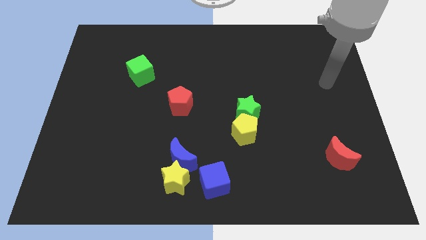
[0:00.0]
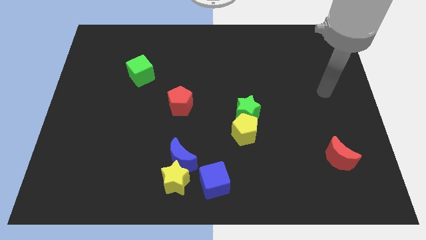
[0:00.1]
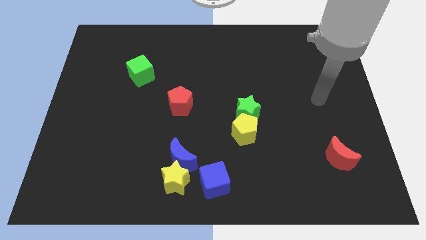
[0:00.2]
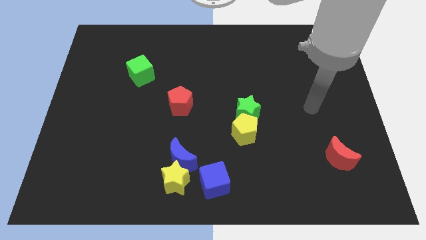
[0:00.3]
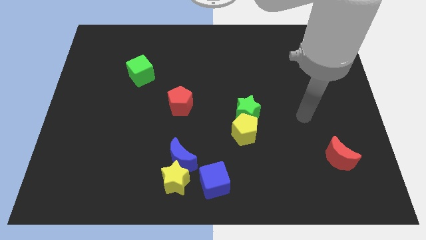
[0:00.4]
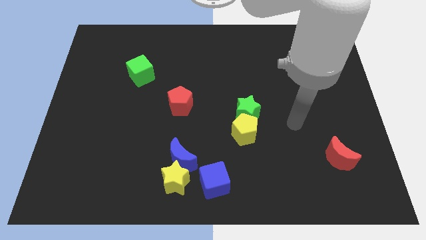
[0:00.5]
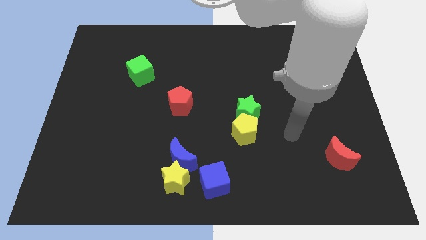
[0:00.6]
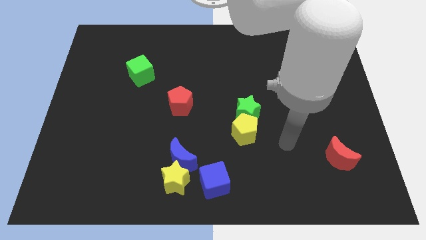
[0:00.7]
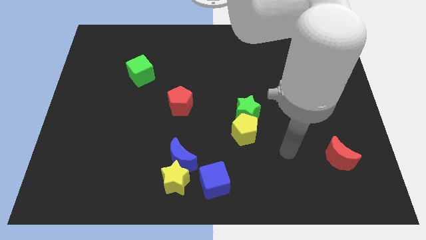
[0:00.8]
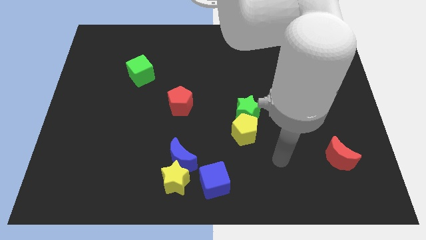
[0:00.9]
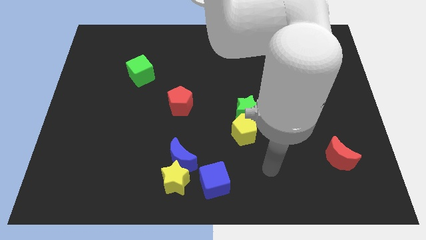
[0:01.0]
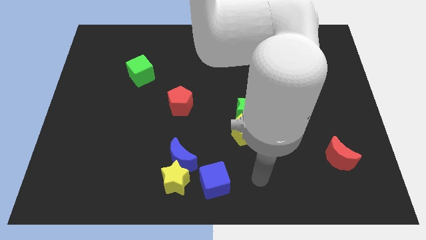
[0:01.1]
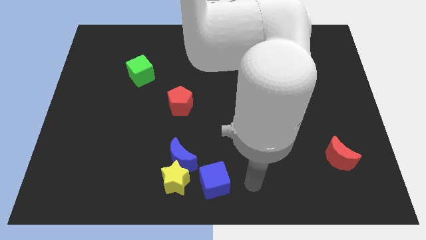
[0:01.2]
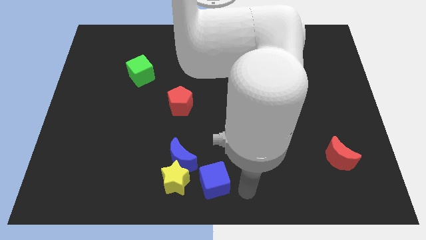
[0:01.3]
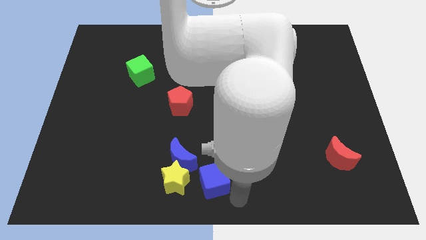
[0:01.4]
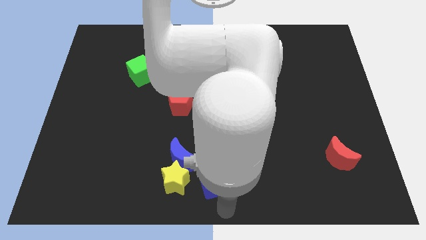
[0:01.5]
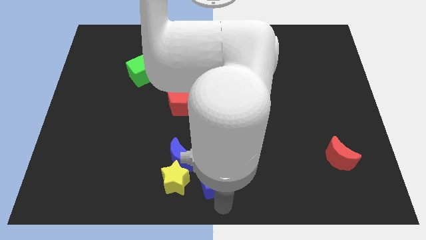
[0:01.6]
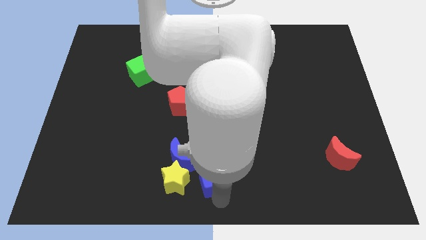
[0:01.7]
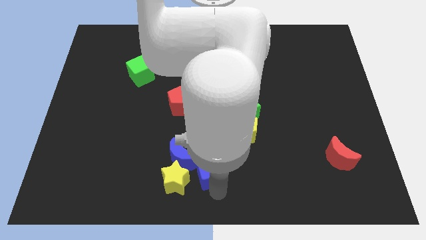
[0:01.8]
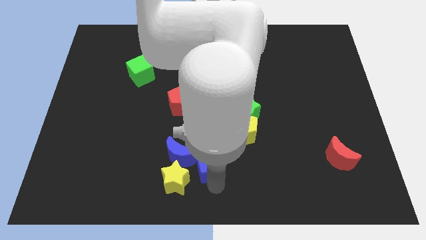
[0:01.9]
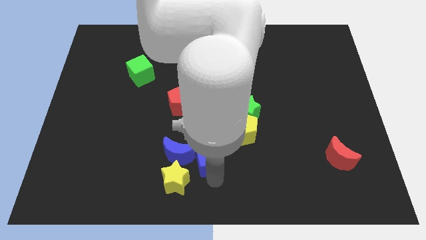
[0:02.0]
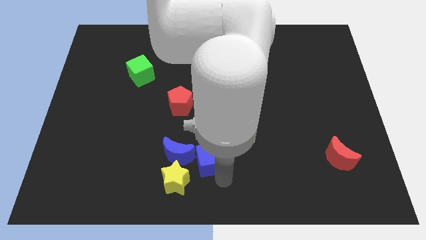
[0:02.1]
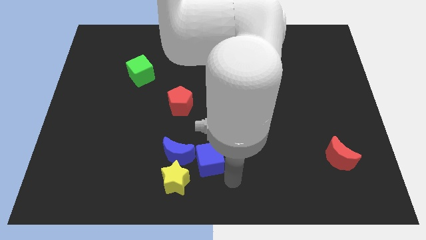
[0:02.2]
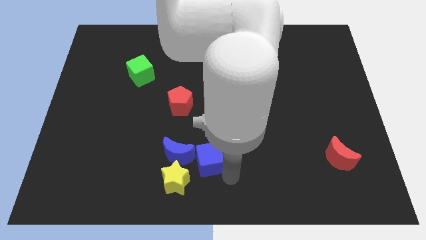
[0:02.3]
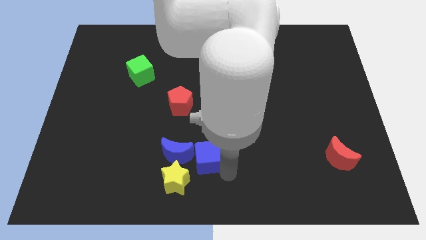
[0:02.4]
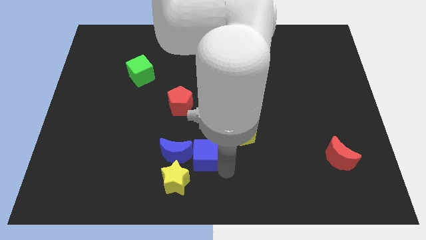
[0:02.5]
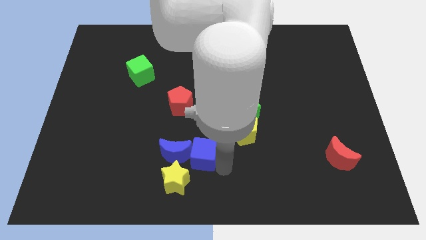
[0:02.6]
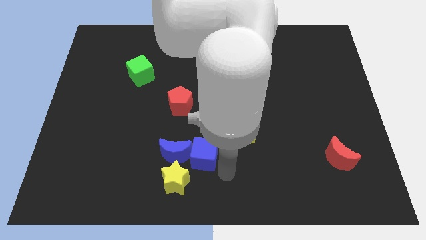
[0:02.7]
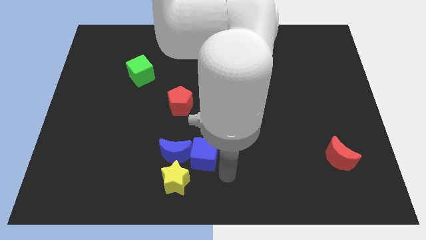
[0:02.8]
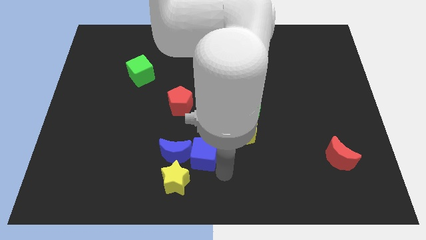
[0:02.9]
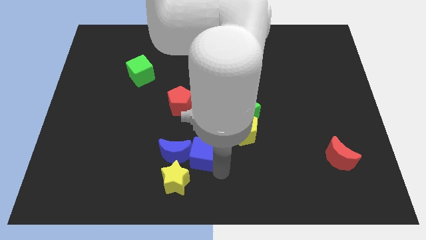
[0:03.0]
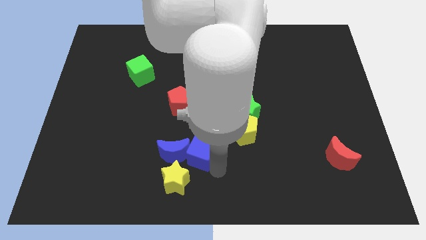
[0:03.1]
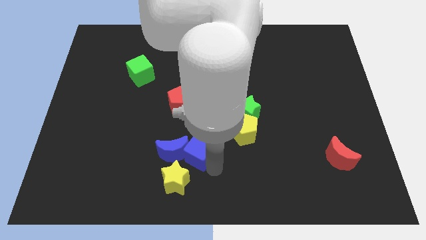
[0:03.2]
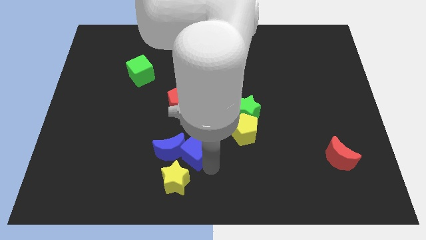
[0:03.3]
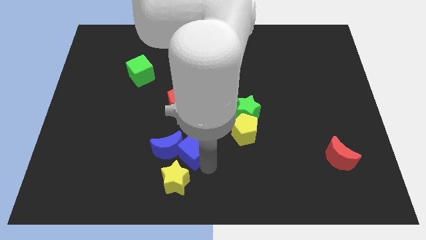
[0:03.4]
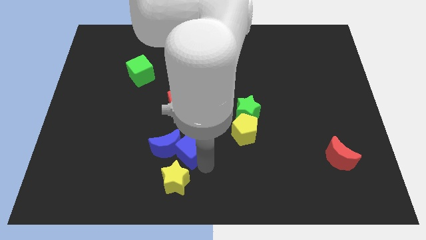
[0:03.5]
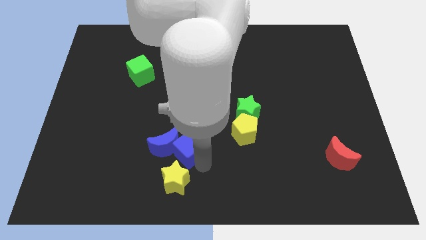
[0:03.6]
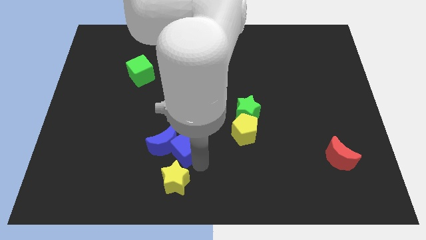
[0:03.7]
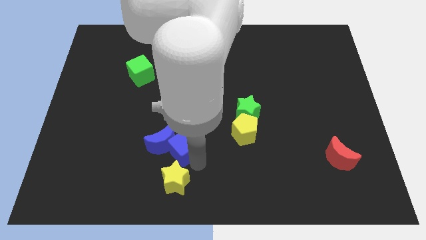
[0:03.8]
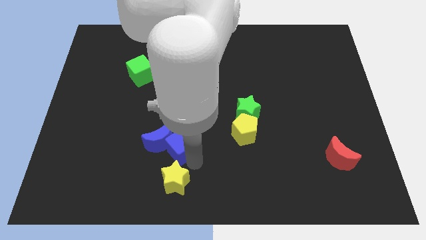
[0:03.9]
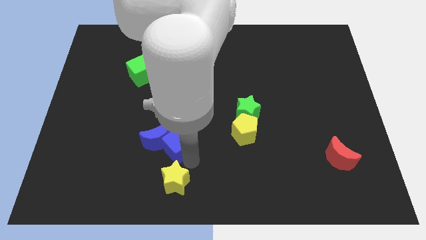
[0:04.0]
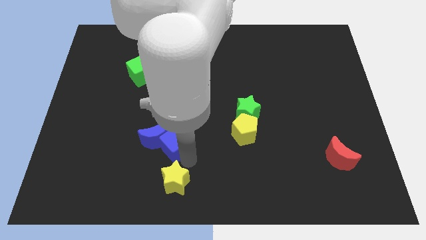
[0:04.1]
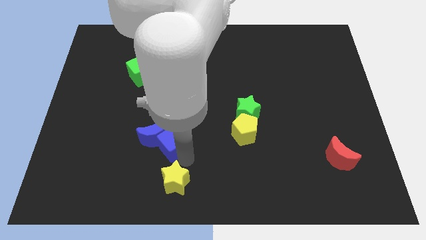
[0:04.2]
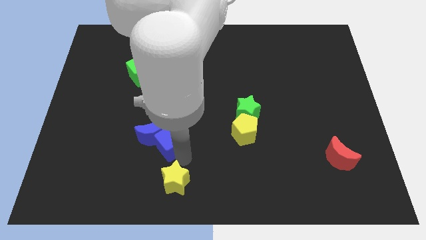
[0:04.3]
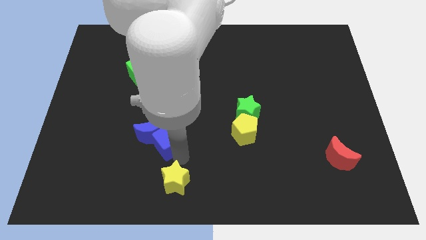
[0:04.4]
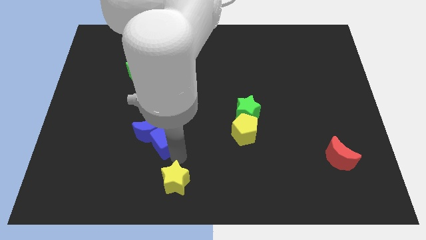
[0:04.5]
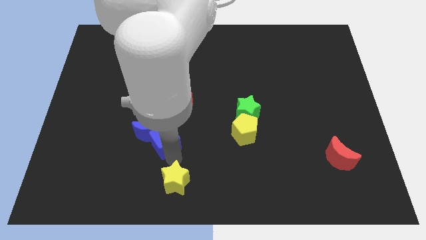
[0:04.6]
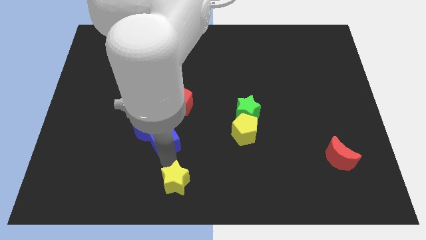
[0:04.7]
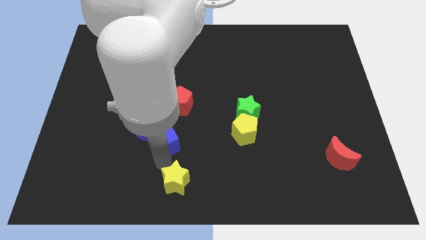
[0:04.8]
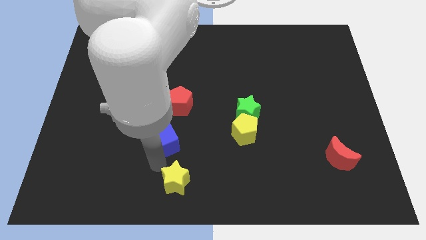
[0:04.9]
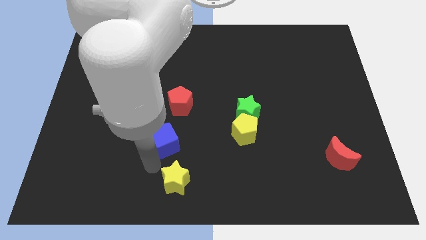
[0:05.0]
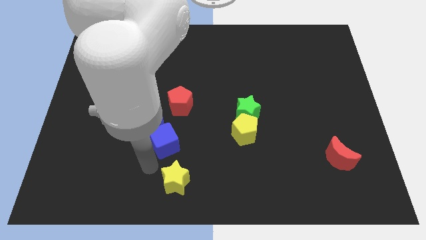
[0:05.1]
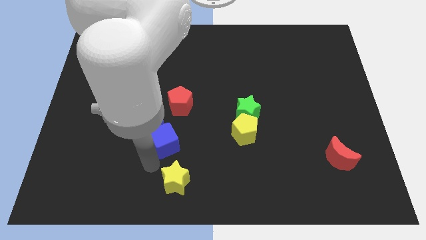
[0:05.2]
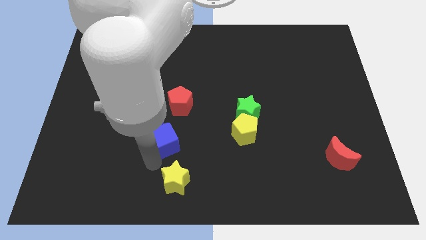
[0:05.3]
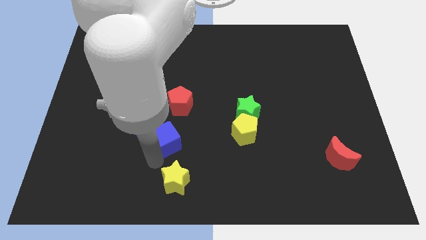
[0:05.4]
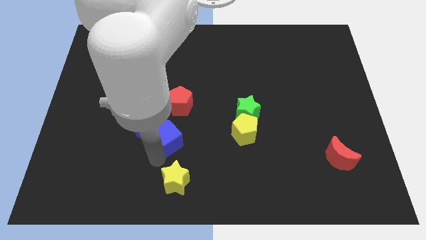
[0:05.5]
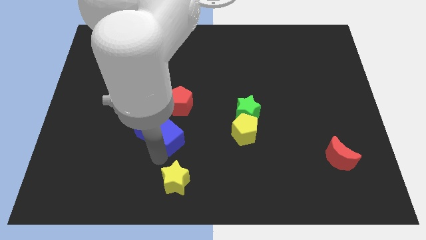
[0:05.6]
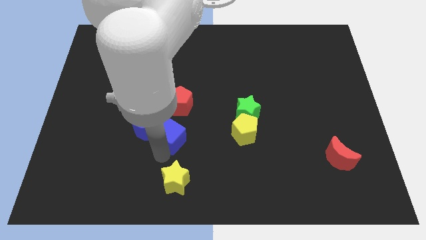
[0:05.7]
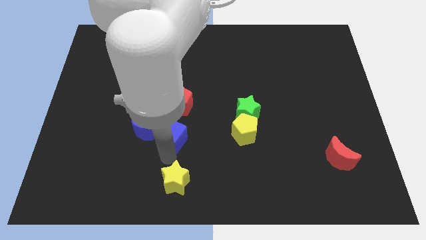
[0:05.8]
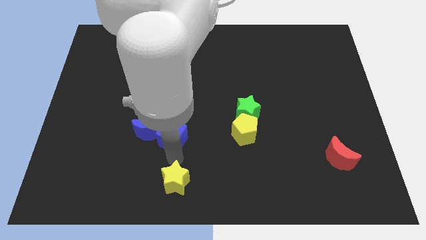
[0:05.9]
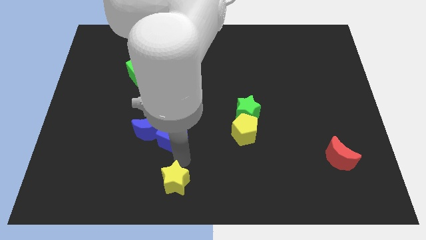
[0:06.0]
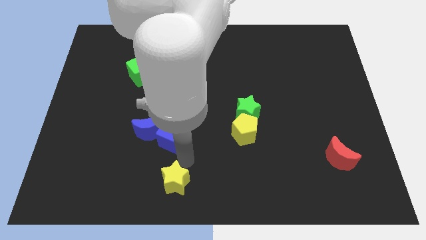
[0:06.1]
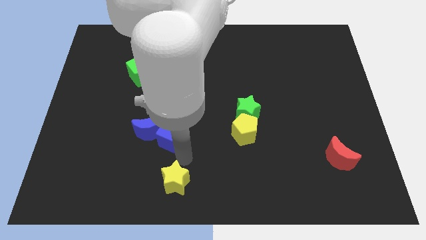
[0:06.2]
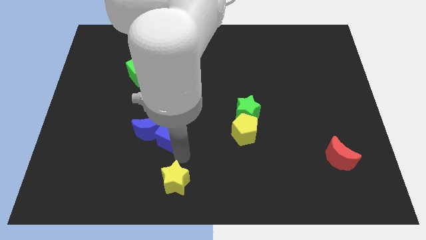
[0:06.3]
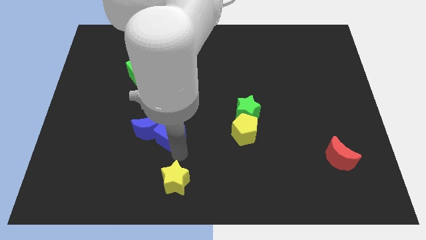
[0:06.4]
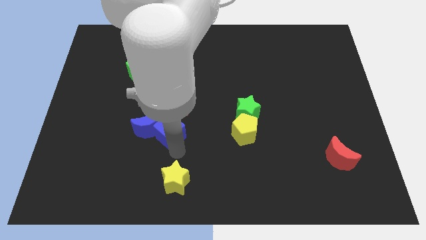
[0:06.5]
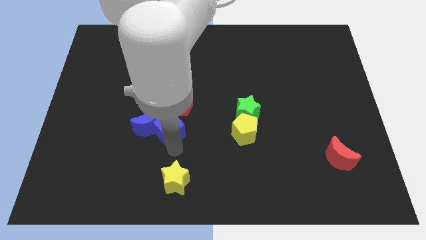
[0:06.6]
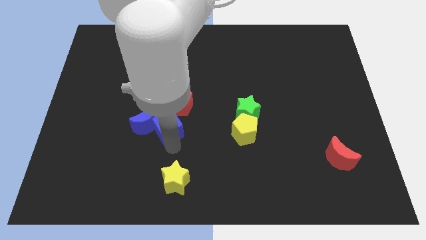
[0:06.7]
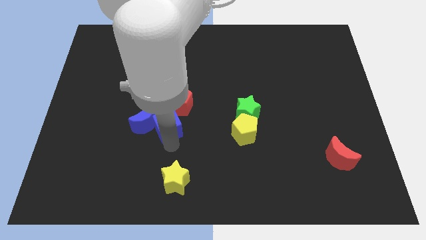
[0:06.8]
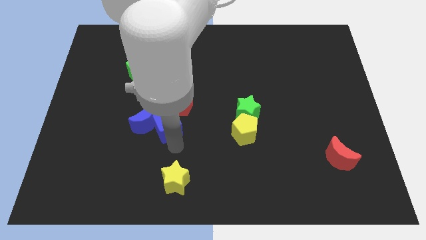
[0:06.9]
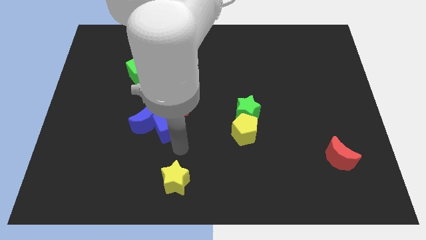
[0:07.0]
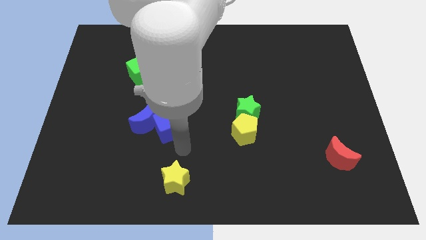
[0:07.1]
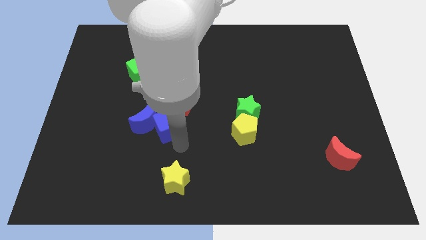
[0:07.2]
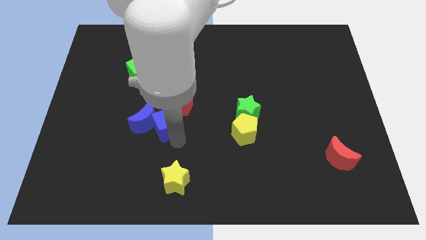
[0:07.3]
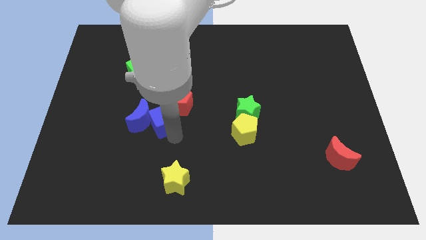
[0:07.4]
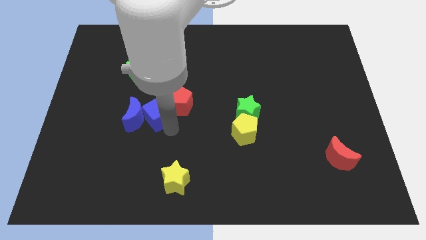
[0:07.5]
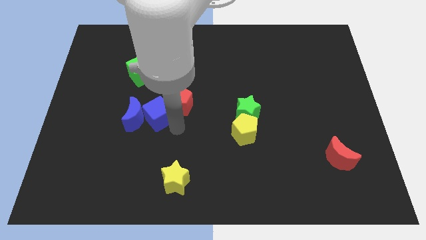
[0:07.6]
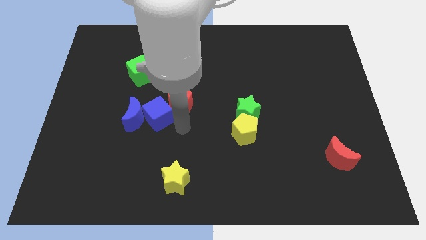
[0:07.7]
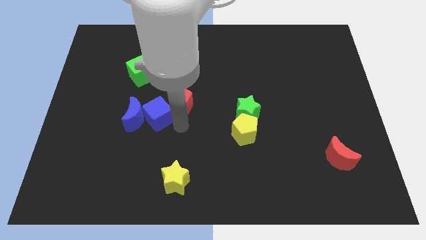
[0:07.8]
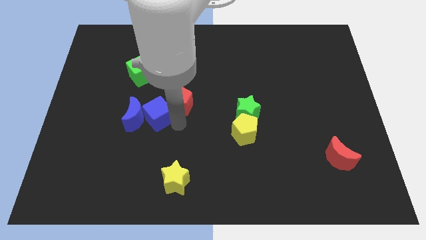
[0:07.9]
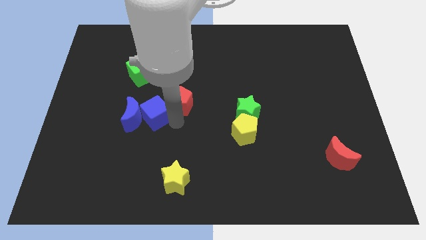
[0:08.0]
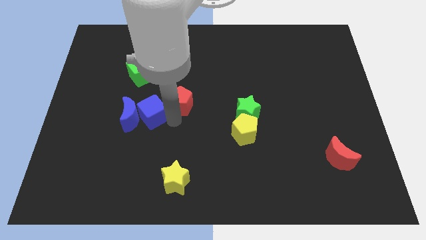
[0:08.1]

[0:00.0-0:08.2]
slide the blue cube to the bottom side of the green cube
